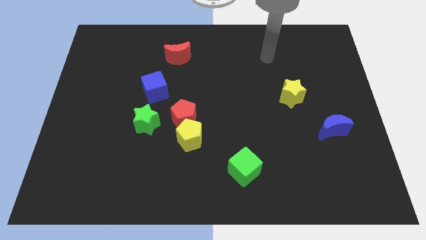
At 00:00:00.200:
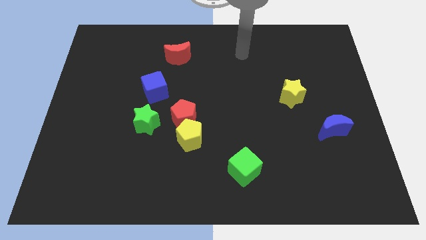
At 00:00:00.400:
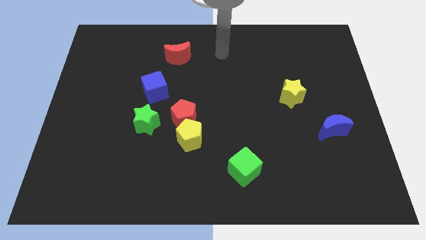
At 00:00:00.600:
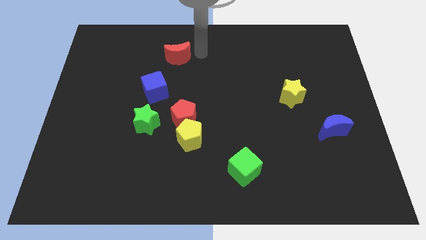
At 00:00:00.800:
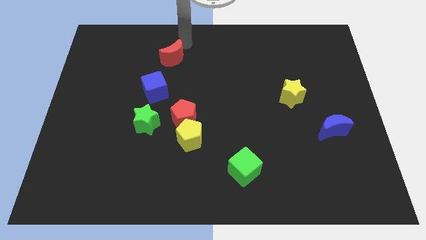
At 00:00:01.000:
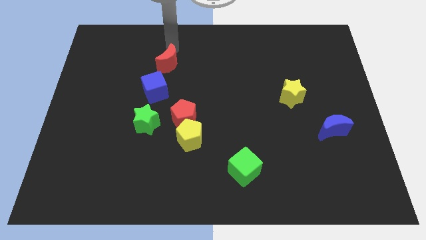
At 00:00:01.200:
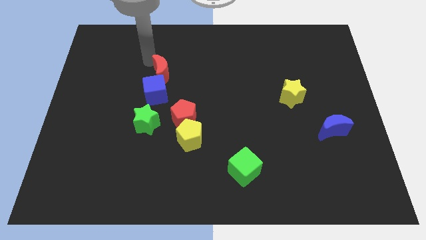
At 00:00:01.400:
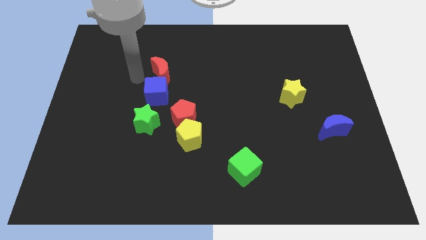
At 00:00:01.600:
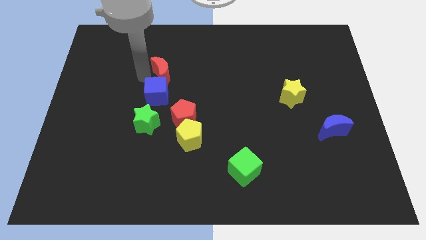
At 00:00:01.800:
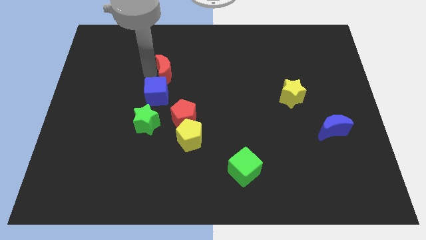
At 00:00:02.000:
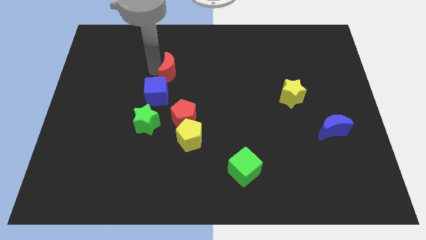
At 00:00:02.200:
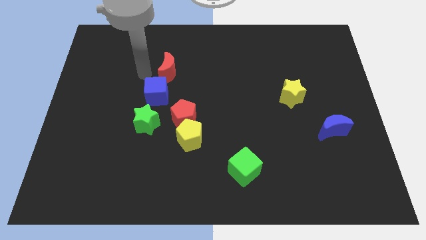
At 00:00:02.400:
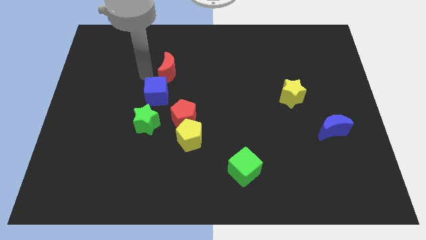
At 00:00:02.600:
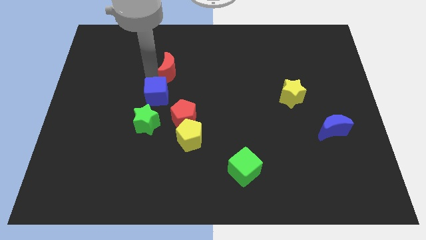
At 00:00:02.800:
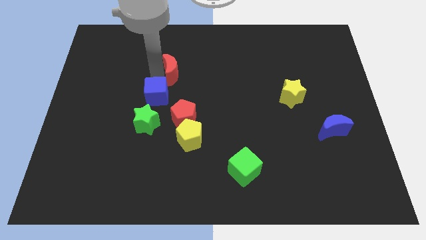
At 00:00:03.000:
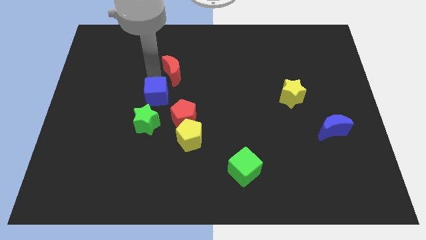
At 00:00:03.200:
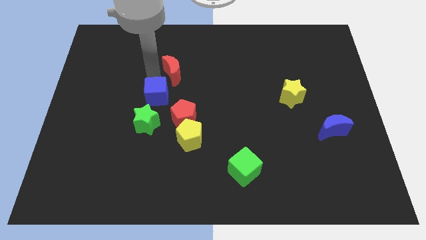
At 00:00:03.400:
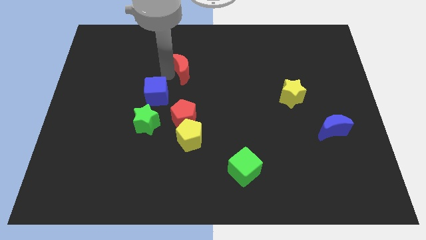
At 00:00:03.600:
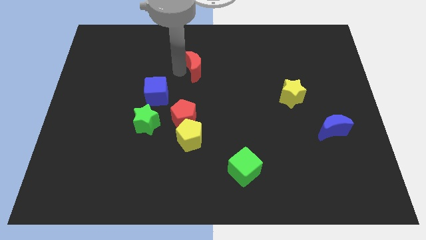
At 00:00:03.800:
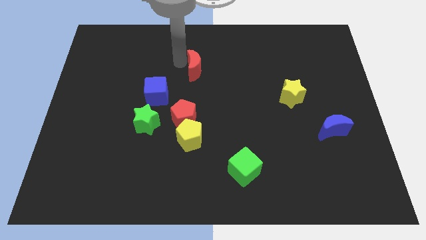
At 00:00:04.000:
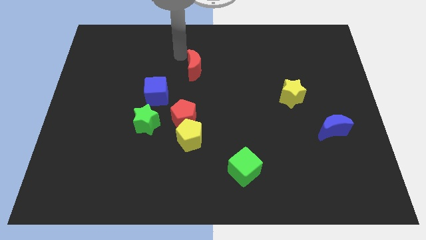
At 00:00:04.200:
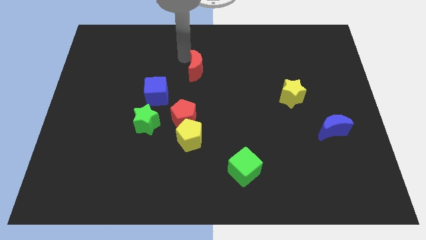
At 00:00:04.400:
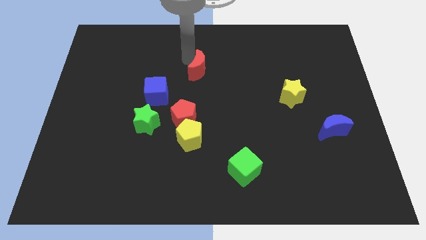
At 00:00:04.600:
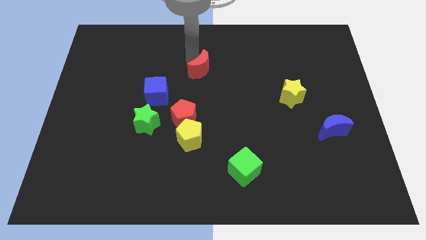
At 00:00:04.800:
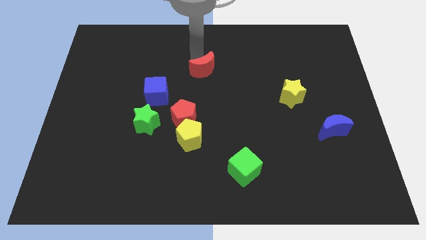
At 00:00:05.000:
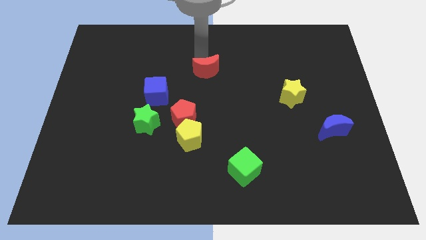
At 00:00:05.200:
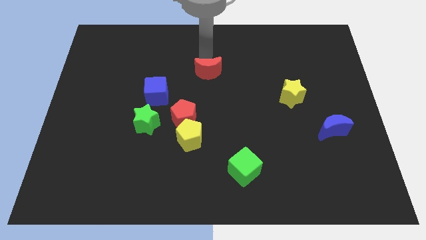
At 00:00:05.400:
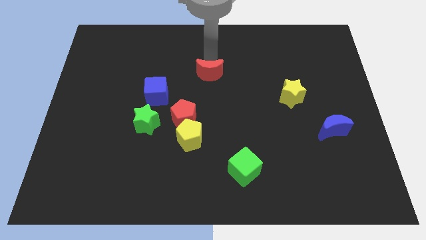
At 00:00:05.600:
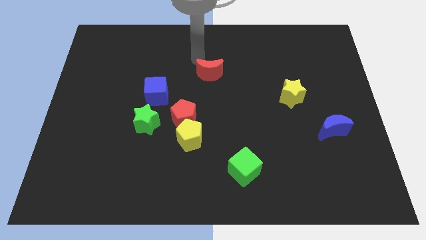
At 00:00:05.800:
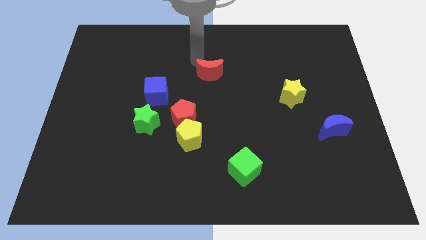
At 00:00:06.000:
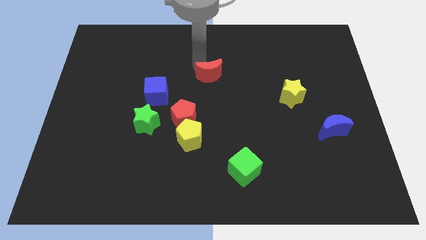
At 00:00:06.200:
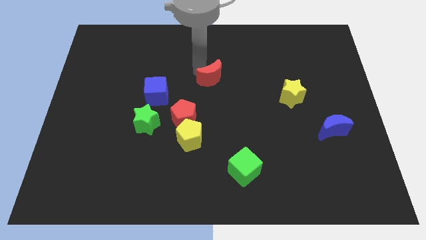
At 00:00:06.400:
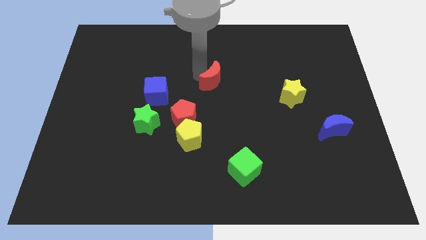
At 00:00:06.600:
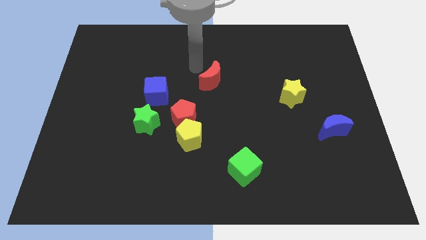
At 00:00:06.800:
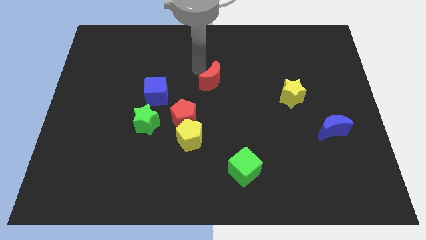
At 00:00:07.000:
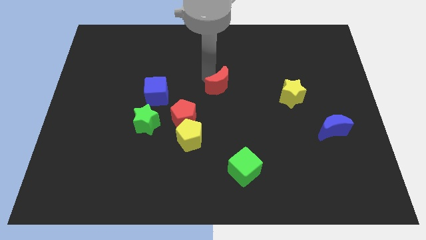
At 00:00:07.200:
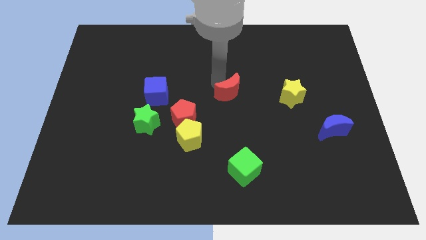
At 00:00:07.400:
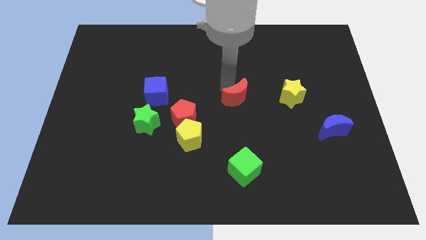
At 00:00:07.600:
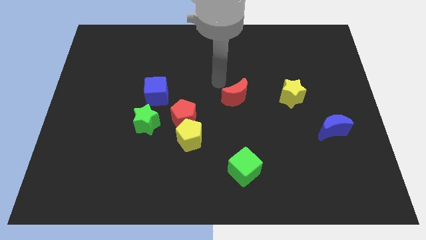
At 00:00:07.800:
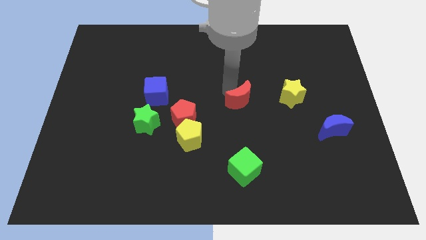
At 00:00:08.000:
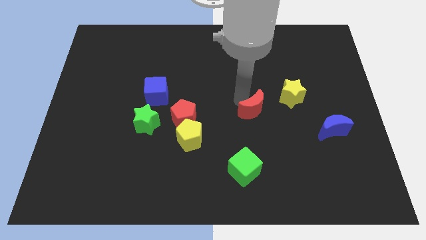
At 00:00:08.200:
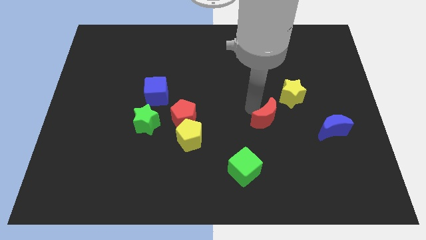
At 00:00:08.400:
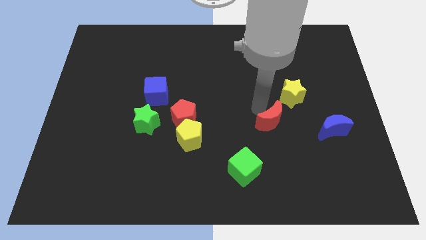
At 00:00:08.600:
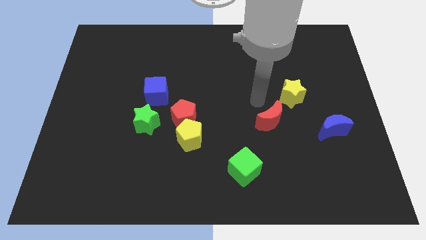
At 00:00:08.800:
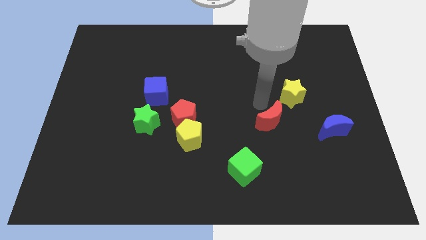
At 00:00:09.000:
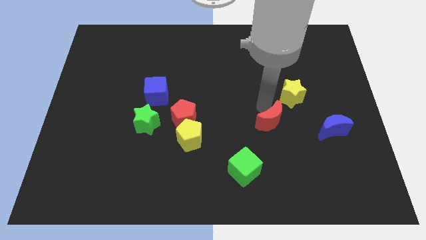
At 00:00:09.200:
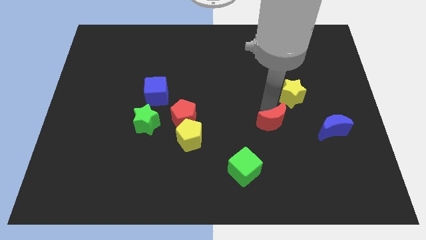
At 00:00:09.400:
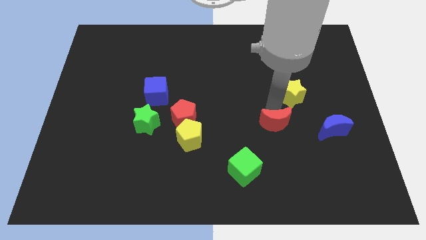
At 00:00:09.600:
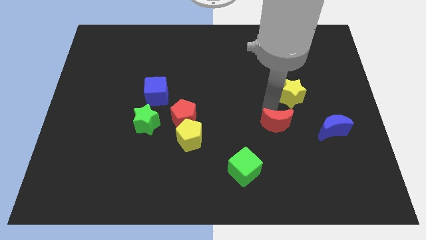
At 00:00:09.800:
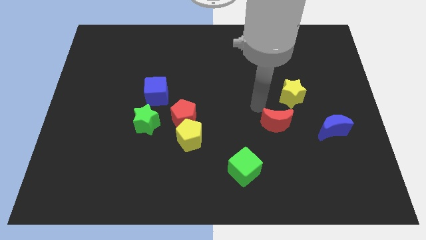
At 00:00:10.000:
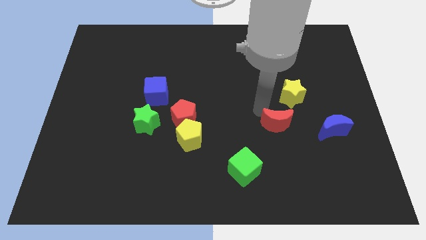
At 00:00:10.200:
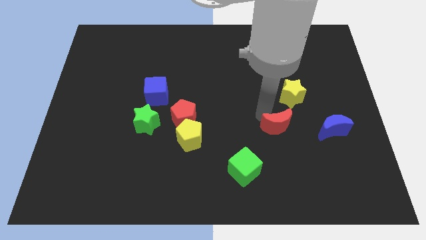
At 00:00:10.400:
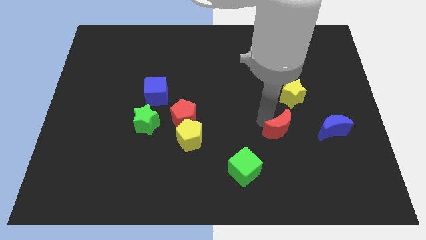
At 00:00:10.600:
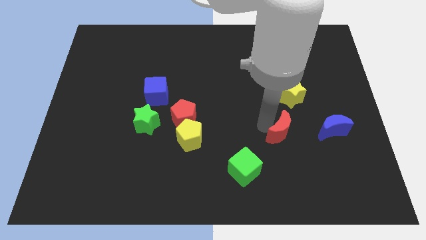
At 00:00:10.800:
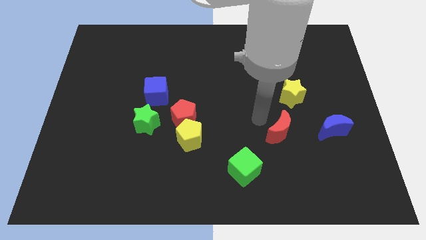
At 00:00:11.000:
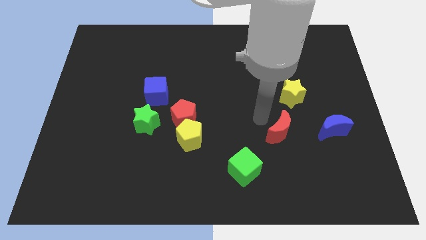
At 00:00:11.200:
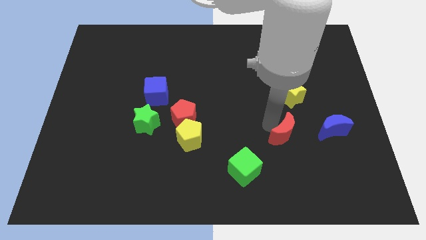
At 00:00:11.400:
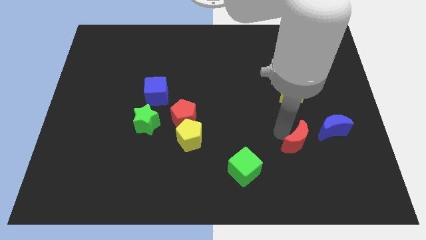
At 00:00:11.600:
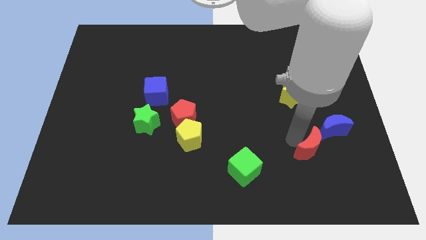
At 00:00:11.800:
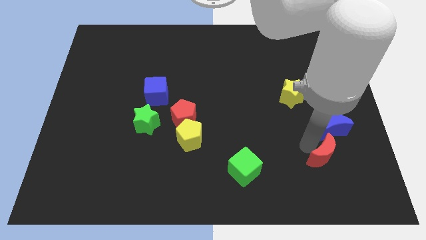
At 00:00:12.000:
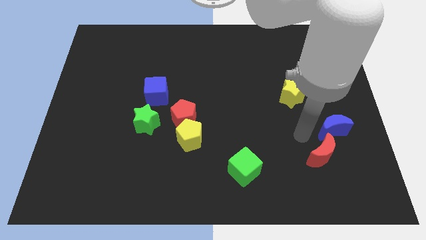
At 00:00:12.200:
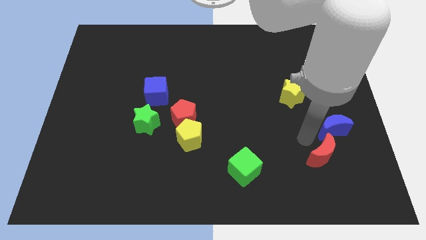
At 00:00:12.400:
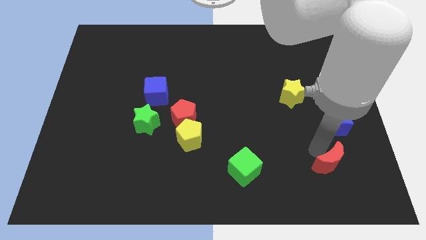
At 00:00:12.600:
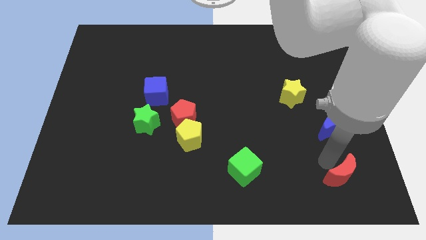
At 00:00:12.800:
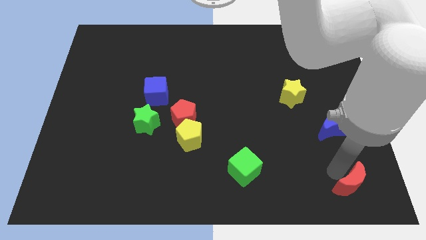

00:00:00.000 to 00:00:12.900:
put the red moon to the bottom right
